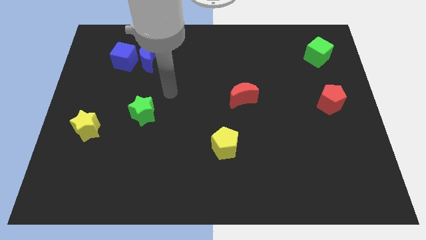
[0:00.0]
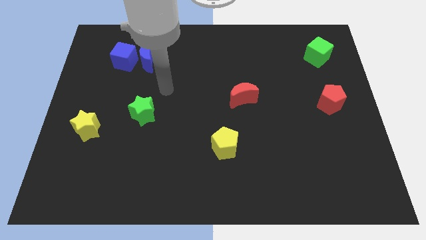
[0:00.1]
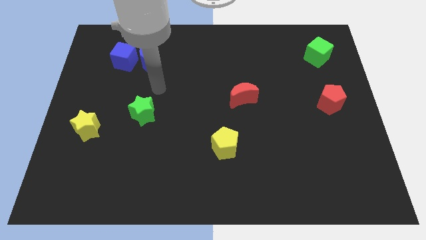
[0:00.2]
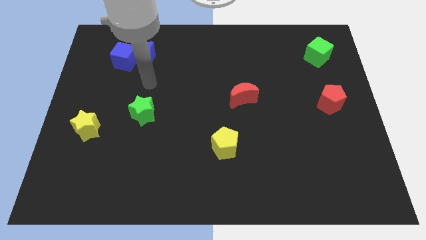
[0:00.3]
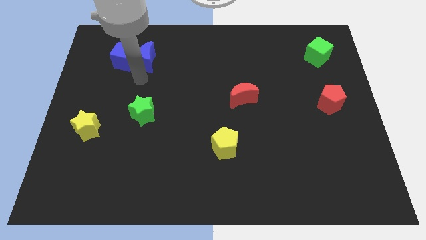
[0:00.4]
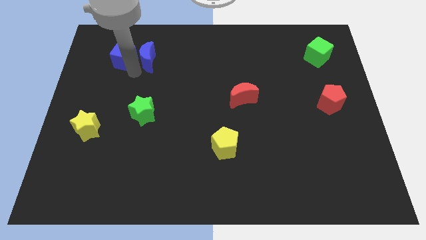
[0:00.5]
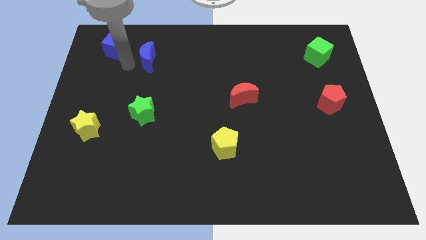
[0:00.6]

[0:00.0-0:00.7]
pull the blue moon apart from the blue cube

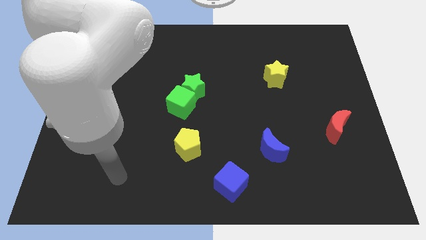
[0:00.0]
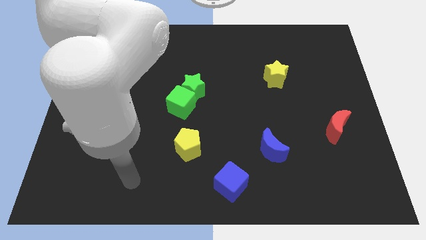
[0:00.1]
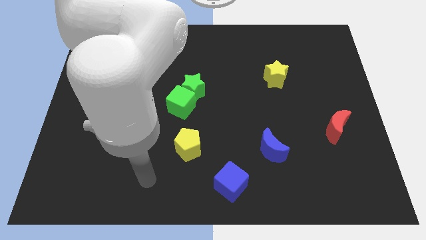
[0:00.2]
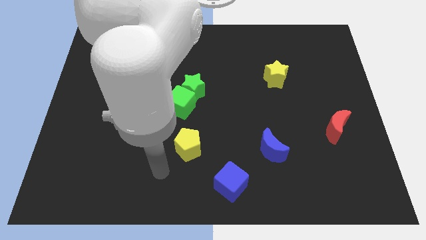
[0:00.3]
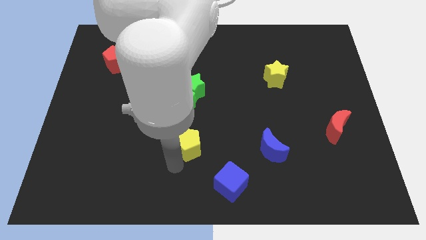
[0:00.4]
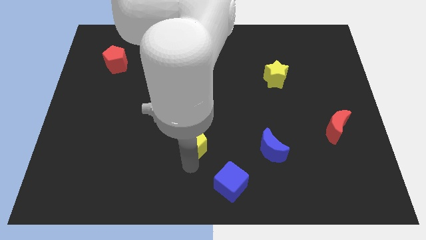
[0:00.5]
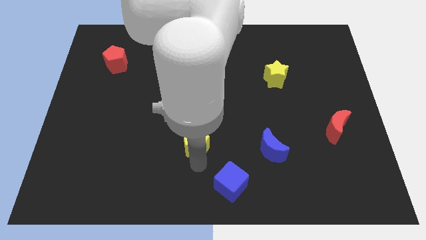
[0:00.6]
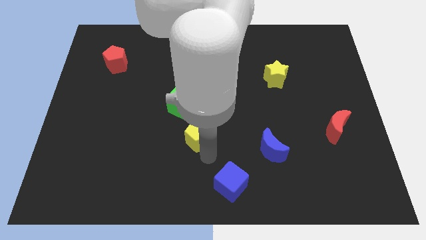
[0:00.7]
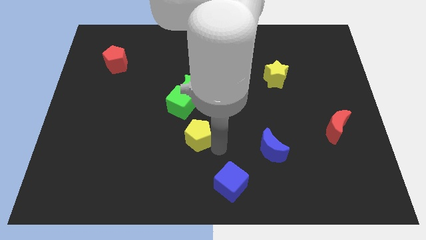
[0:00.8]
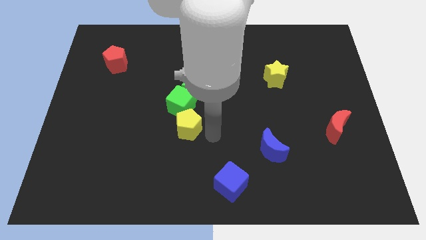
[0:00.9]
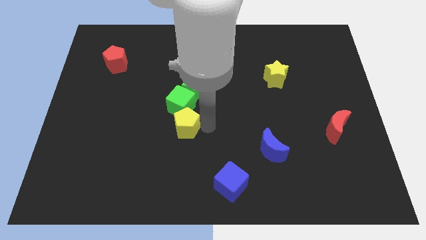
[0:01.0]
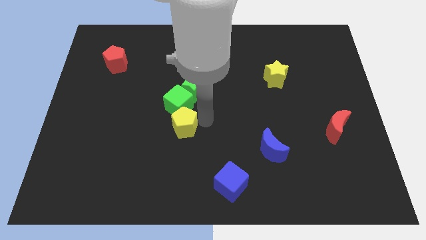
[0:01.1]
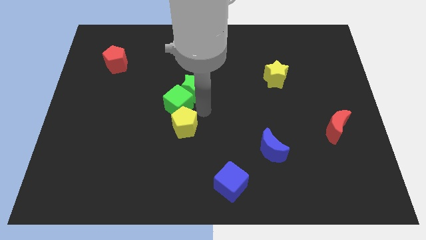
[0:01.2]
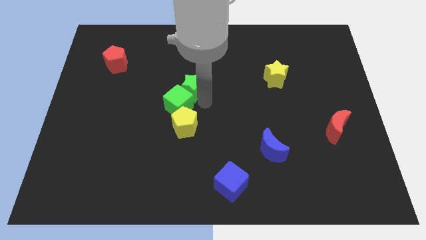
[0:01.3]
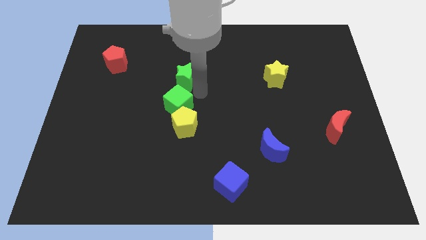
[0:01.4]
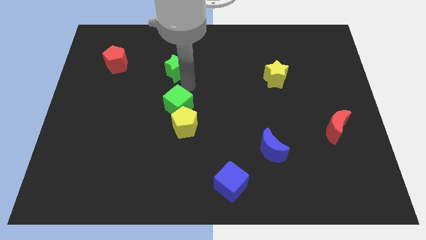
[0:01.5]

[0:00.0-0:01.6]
pull the green cube apart from the green star

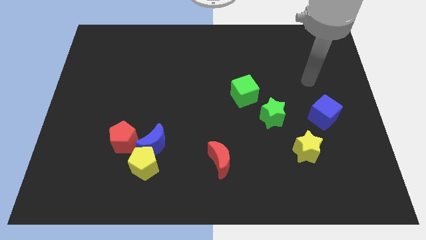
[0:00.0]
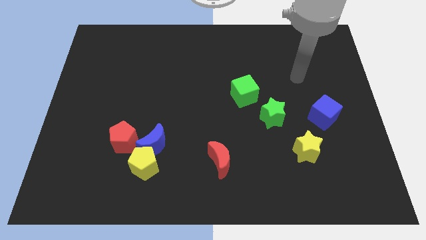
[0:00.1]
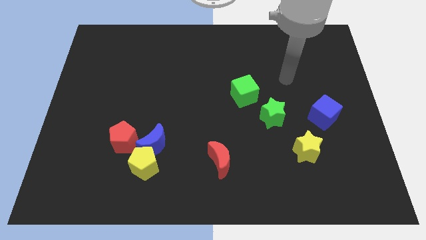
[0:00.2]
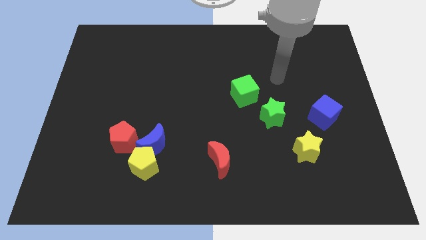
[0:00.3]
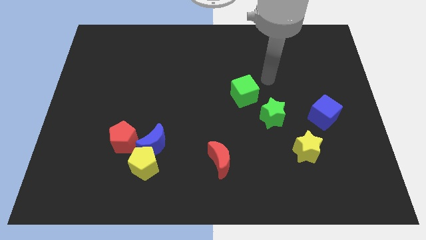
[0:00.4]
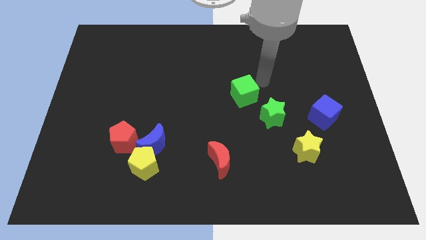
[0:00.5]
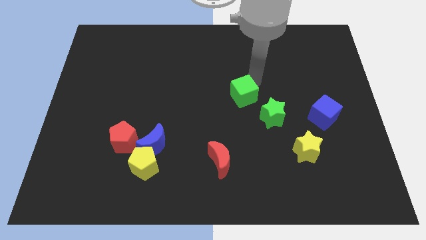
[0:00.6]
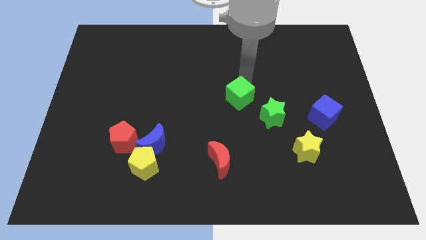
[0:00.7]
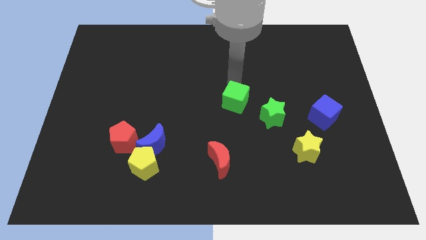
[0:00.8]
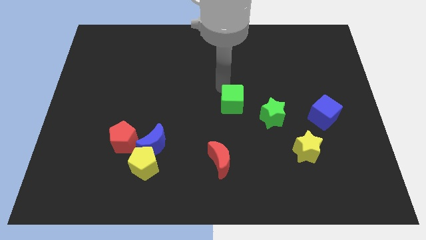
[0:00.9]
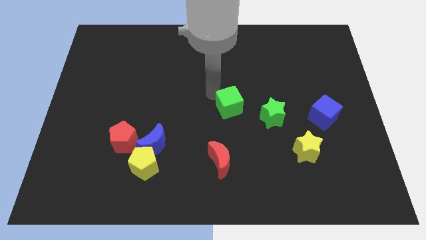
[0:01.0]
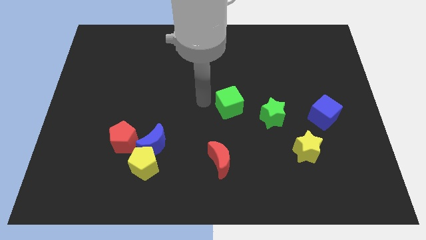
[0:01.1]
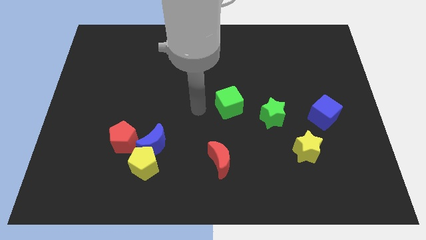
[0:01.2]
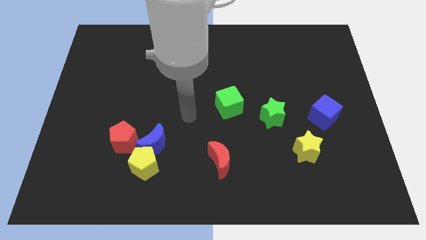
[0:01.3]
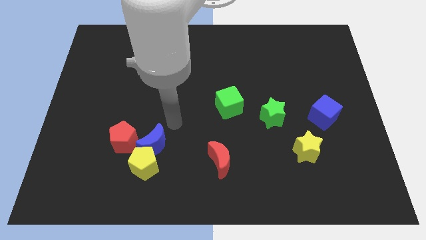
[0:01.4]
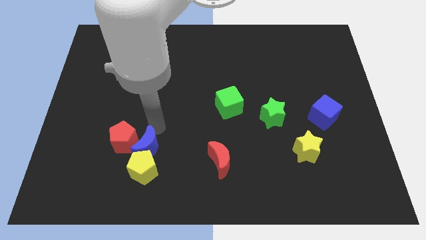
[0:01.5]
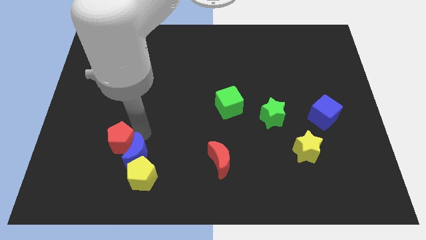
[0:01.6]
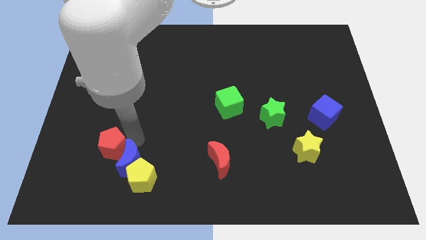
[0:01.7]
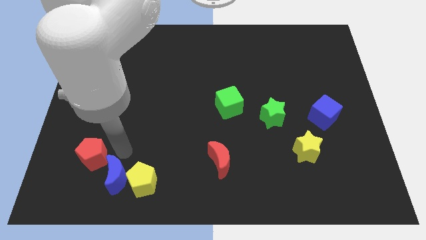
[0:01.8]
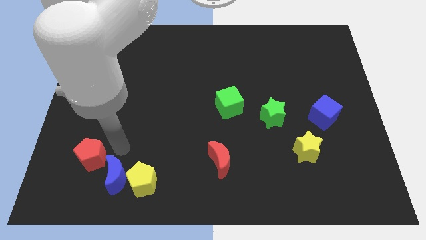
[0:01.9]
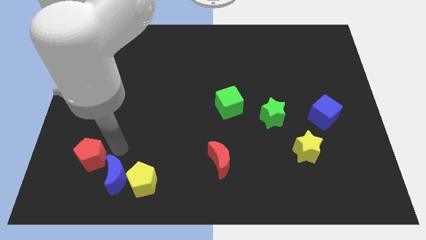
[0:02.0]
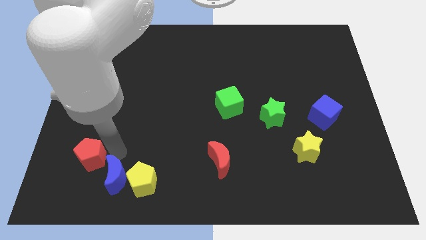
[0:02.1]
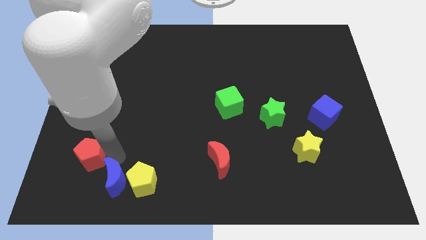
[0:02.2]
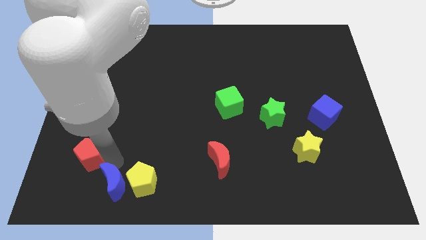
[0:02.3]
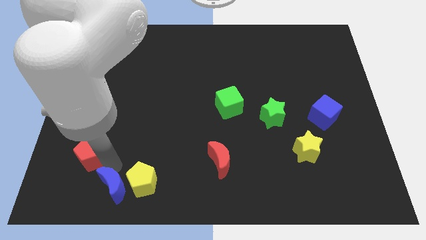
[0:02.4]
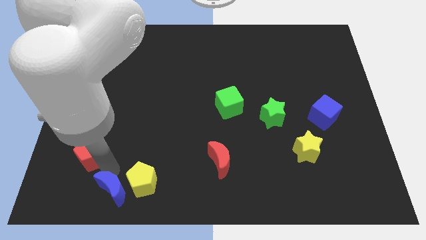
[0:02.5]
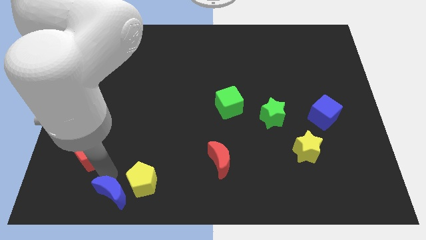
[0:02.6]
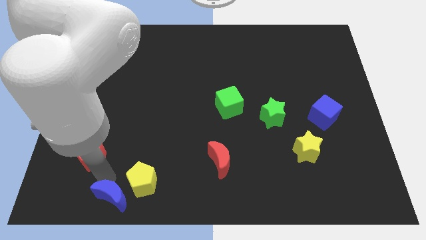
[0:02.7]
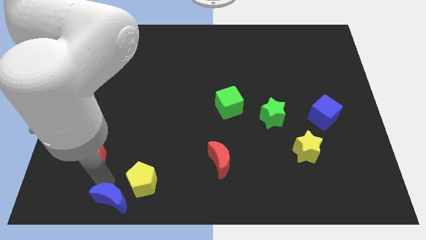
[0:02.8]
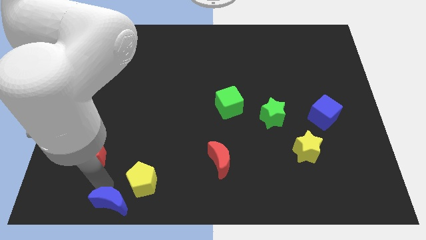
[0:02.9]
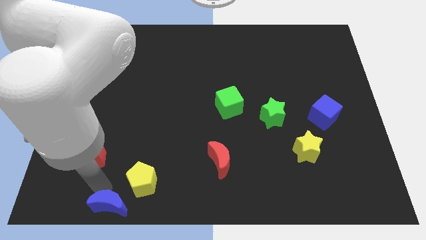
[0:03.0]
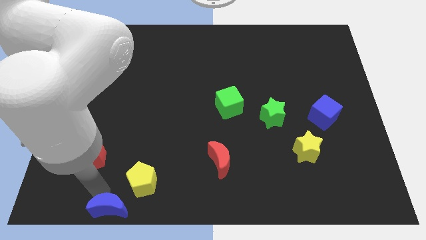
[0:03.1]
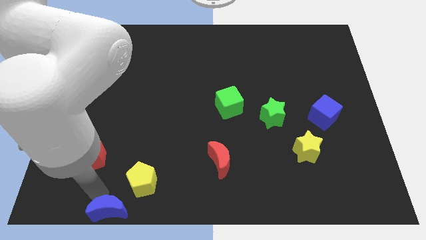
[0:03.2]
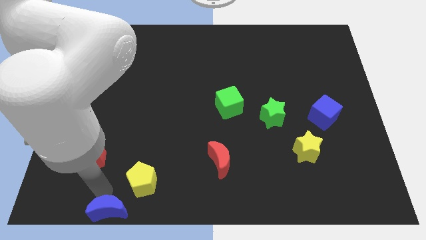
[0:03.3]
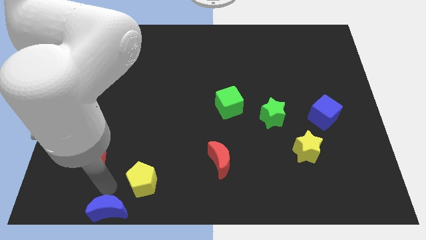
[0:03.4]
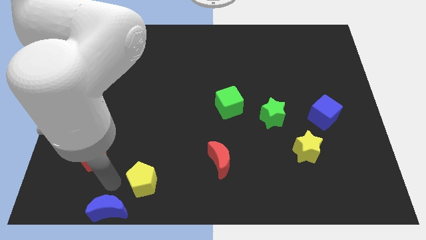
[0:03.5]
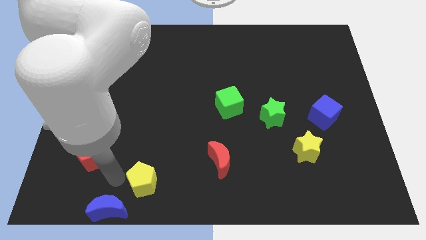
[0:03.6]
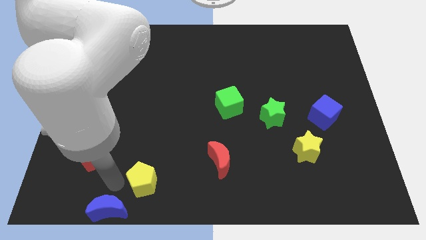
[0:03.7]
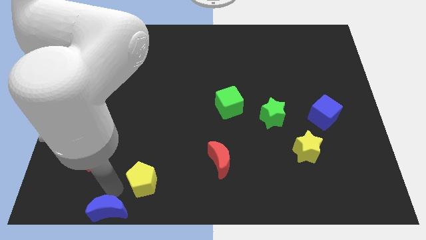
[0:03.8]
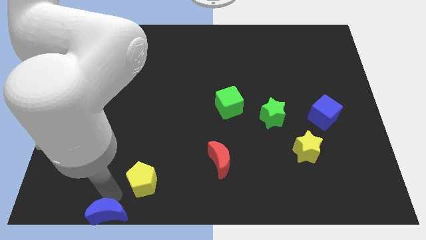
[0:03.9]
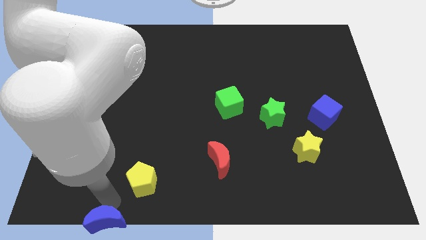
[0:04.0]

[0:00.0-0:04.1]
move the blue moon away from the yellow pentagon and red pentagon

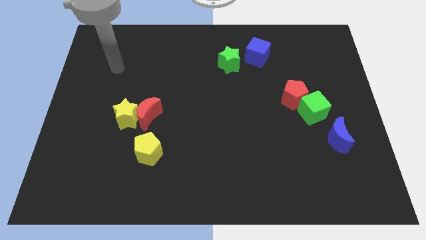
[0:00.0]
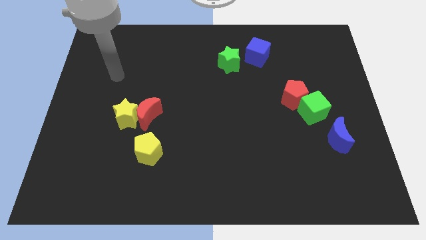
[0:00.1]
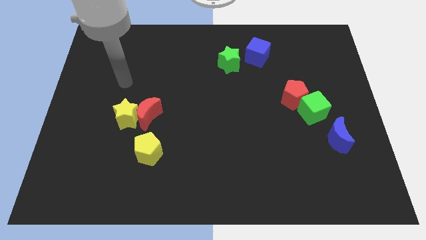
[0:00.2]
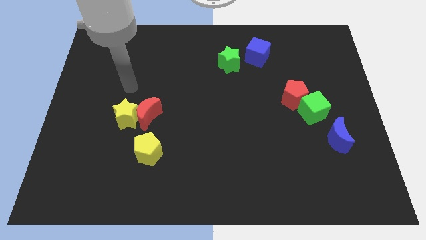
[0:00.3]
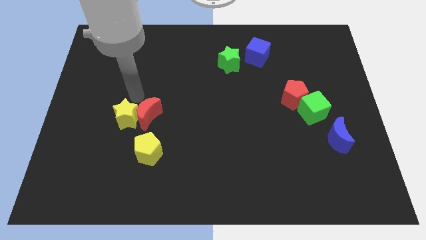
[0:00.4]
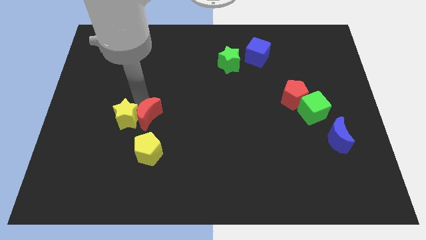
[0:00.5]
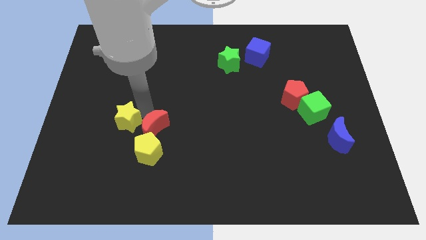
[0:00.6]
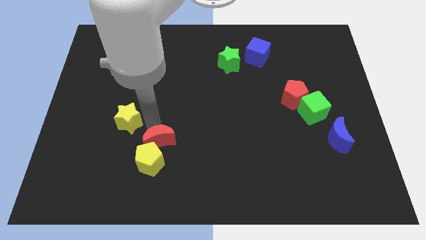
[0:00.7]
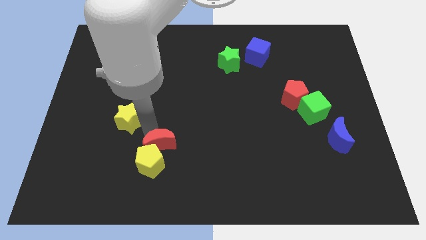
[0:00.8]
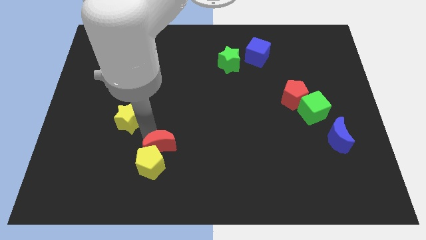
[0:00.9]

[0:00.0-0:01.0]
pull the yellow star apart from the red moon

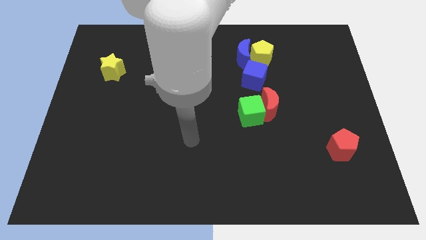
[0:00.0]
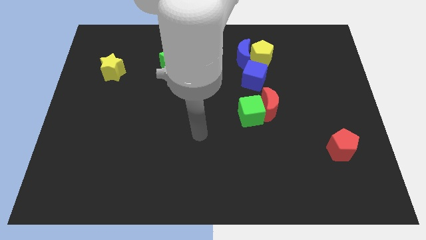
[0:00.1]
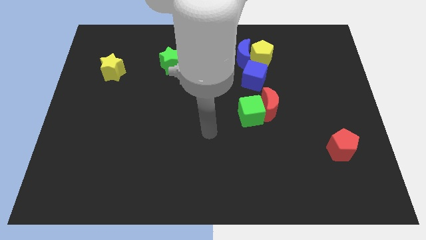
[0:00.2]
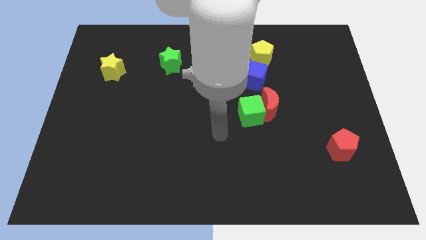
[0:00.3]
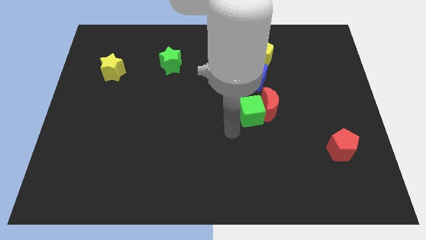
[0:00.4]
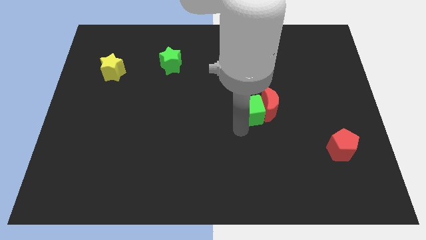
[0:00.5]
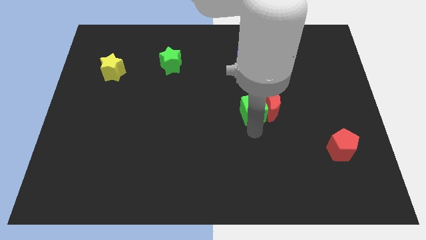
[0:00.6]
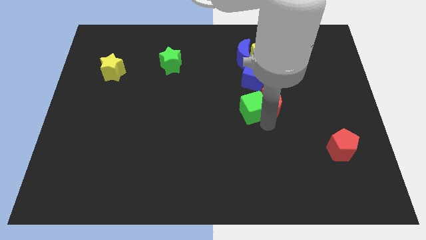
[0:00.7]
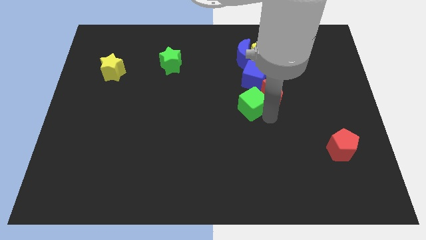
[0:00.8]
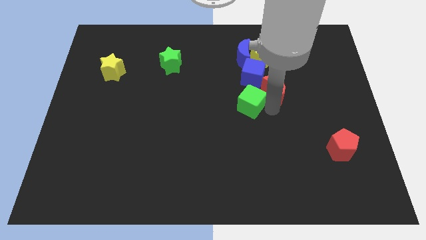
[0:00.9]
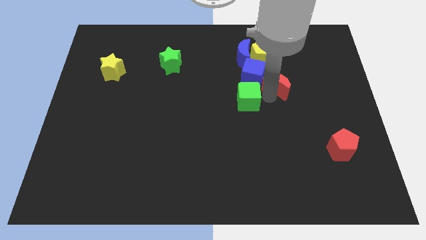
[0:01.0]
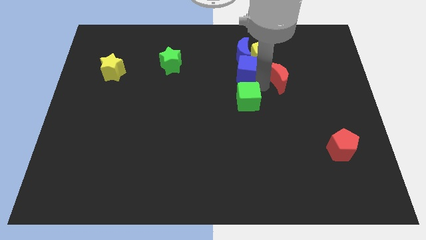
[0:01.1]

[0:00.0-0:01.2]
pull the green cube apart from the red moon

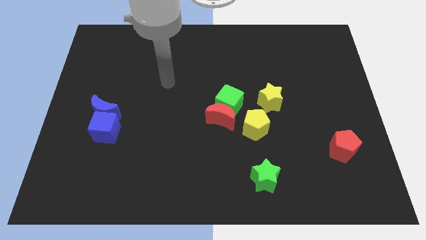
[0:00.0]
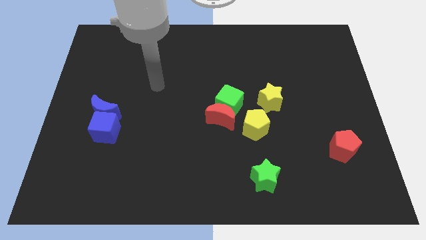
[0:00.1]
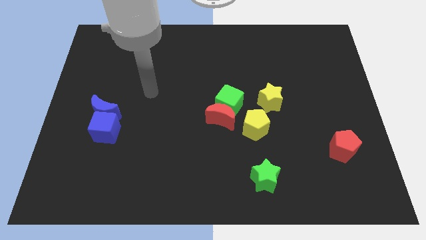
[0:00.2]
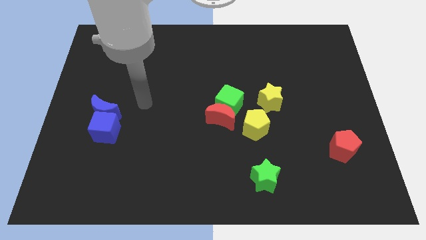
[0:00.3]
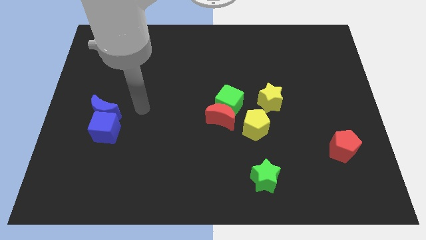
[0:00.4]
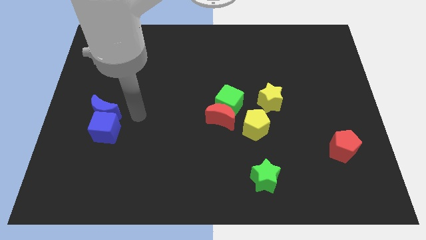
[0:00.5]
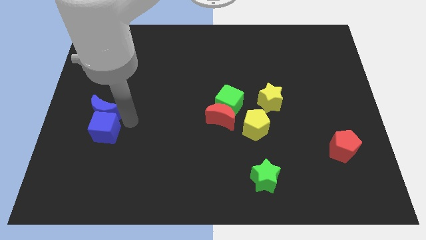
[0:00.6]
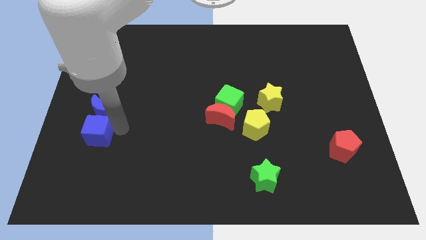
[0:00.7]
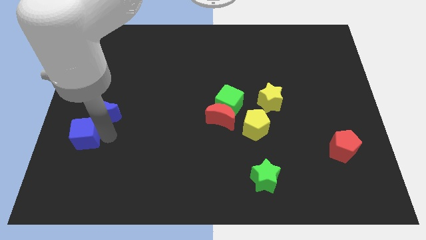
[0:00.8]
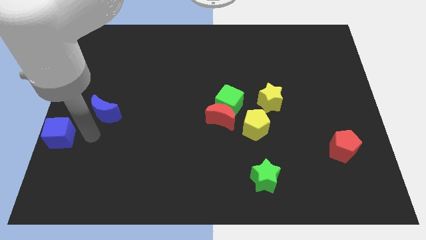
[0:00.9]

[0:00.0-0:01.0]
separate the blue moon from the blue cube
